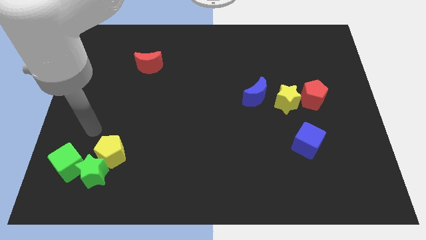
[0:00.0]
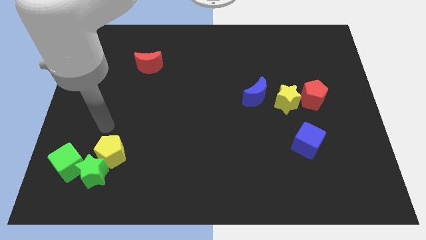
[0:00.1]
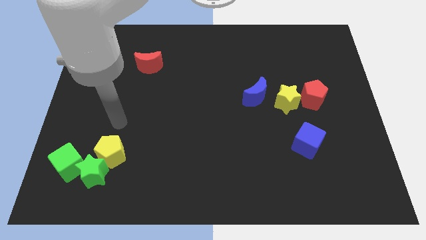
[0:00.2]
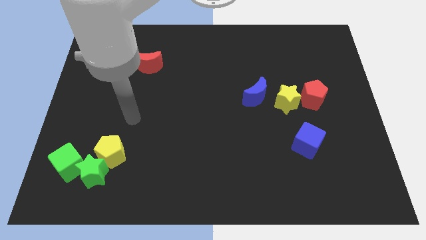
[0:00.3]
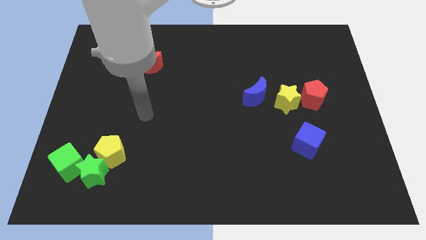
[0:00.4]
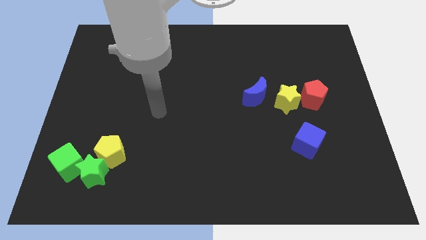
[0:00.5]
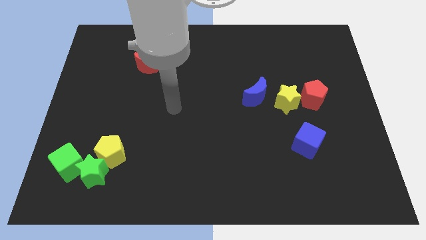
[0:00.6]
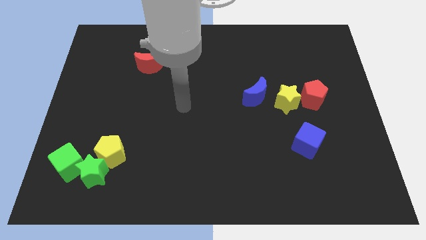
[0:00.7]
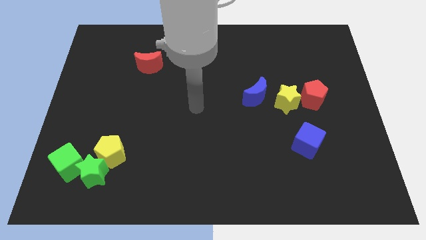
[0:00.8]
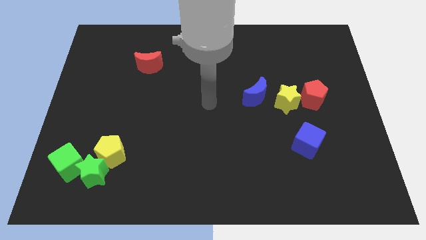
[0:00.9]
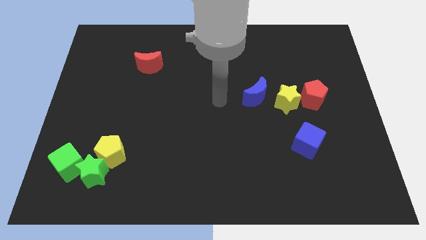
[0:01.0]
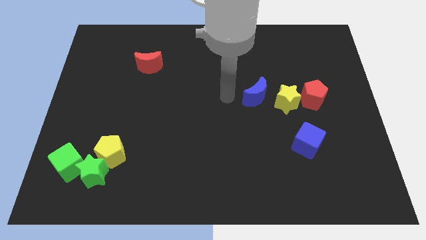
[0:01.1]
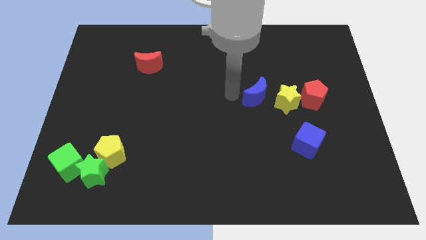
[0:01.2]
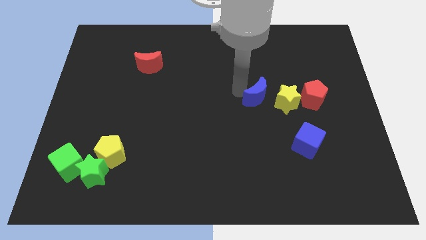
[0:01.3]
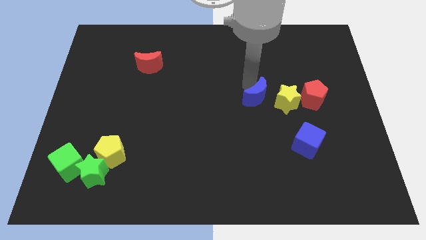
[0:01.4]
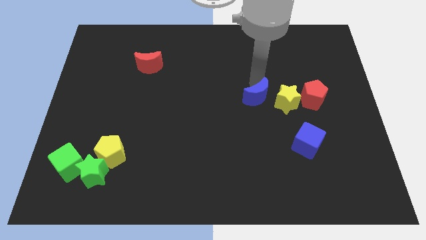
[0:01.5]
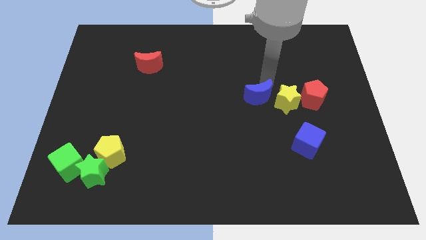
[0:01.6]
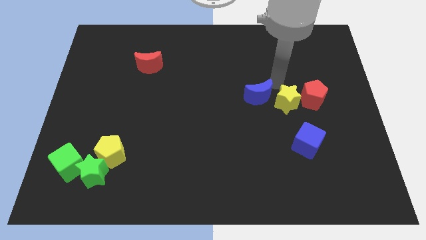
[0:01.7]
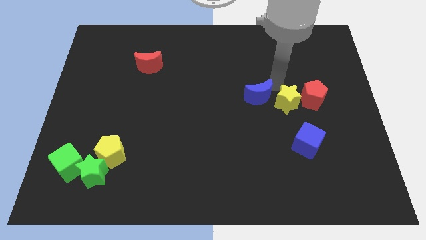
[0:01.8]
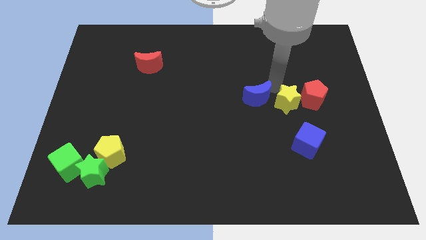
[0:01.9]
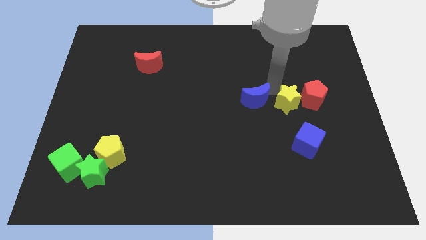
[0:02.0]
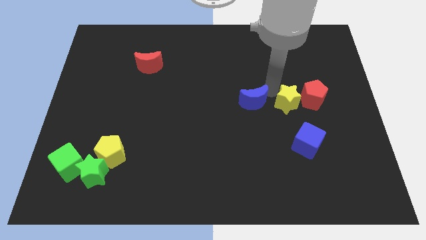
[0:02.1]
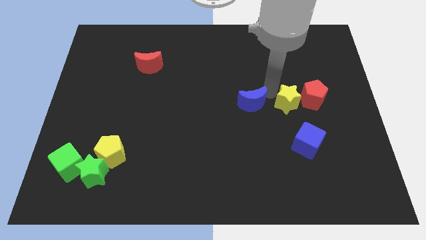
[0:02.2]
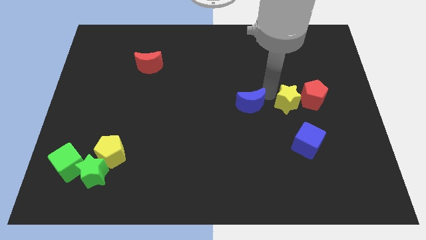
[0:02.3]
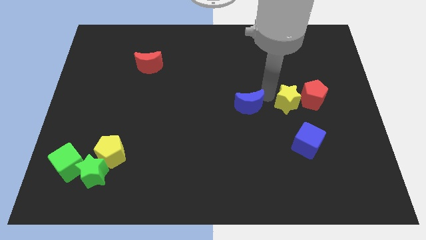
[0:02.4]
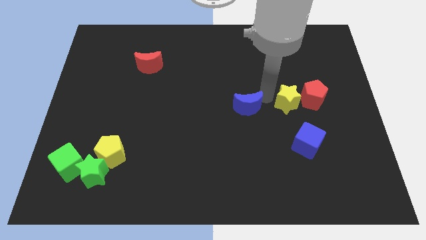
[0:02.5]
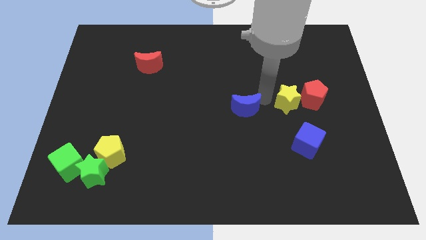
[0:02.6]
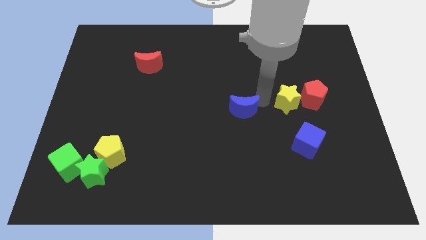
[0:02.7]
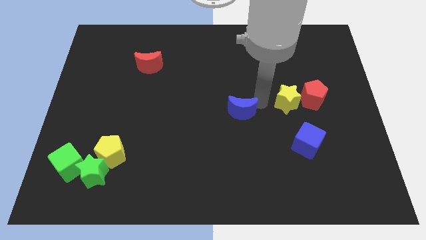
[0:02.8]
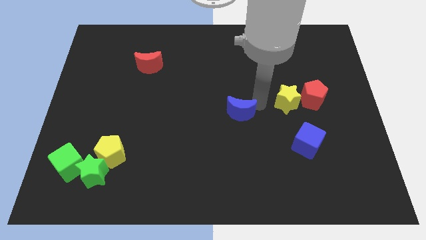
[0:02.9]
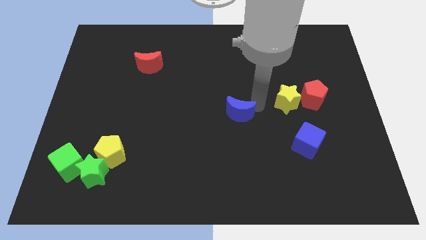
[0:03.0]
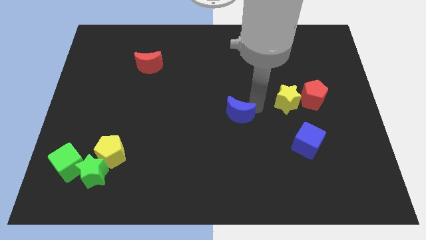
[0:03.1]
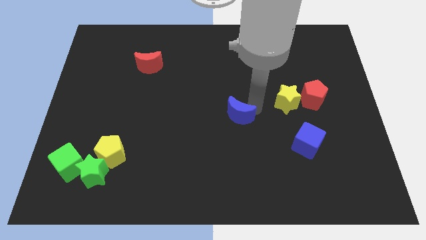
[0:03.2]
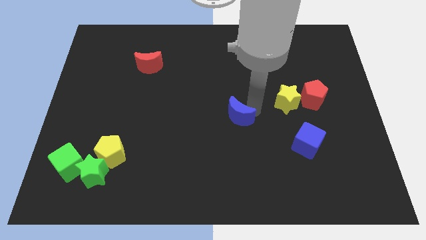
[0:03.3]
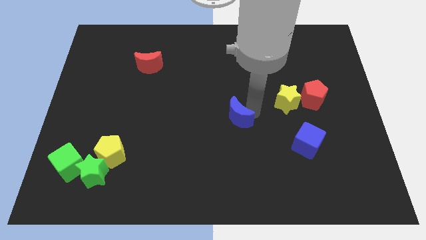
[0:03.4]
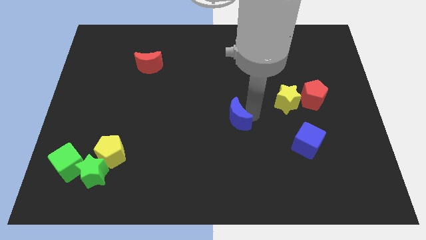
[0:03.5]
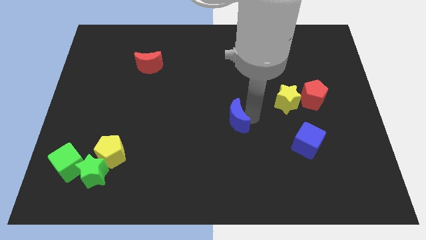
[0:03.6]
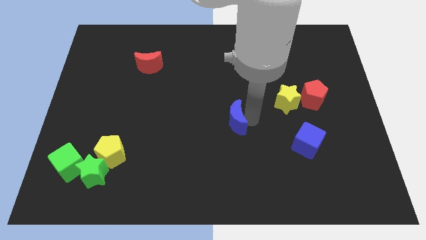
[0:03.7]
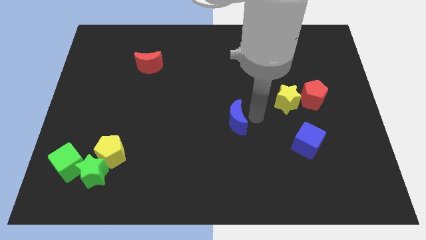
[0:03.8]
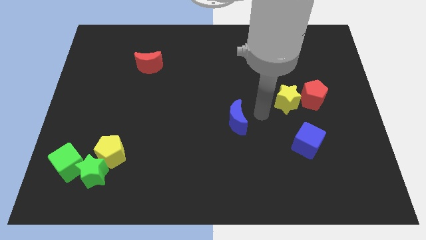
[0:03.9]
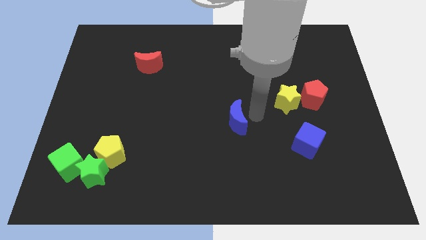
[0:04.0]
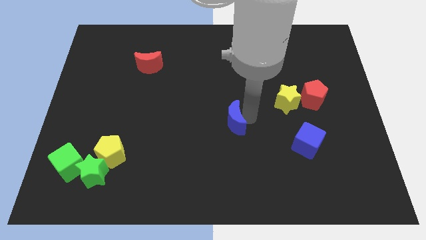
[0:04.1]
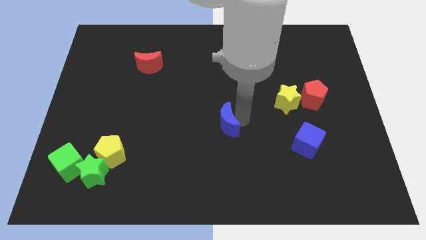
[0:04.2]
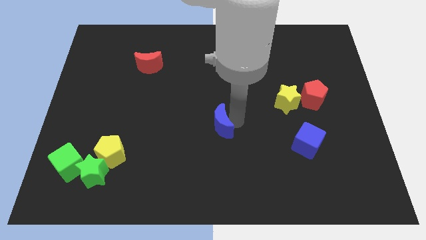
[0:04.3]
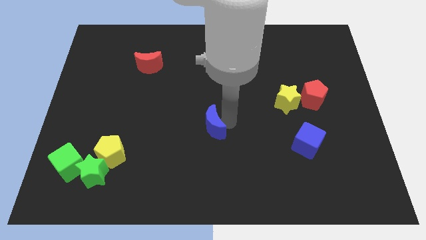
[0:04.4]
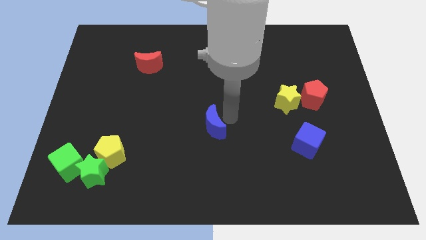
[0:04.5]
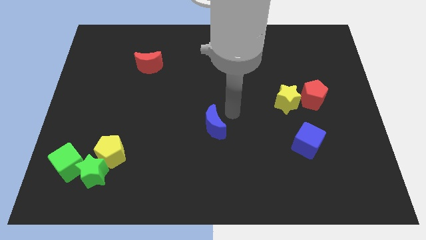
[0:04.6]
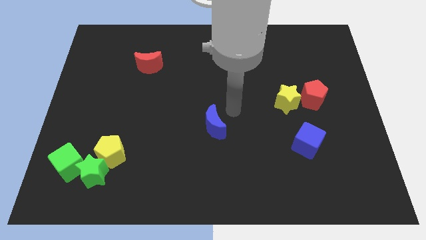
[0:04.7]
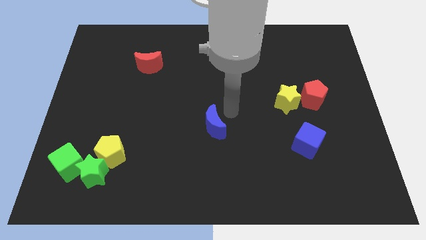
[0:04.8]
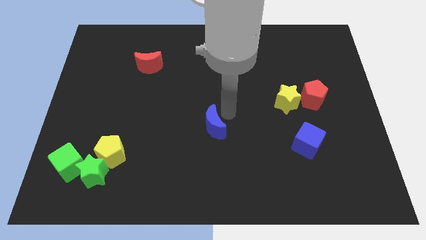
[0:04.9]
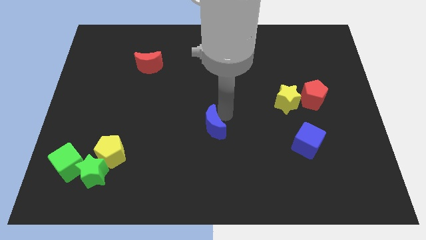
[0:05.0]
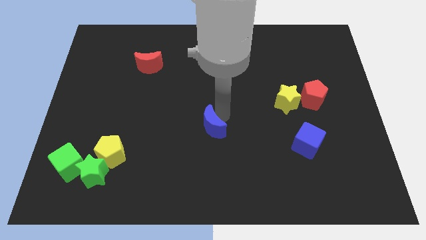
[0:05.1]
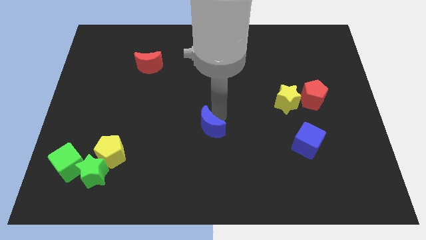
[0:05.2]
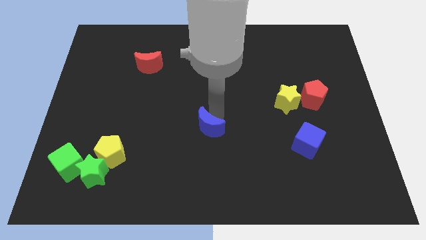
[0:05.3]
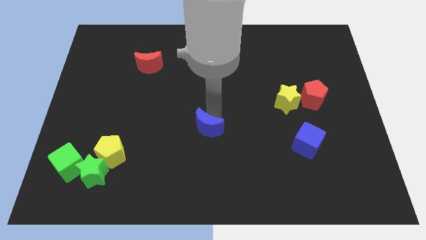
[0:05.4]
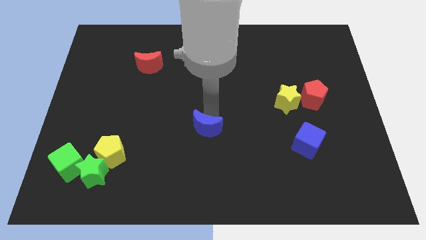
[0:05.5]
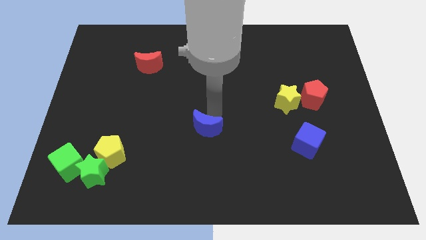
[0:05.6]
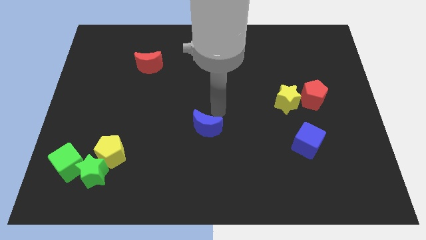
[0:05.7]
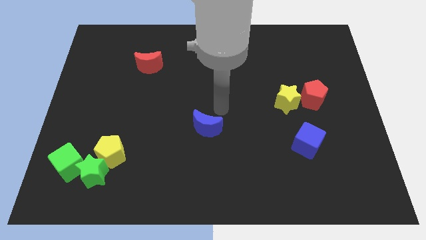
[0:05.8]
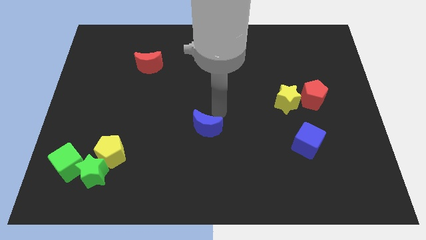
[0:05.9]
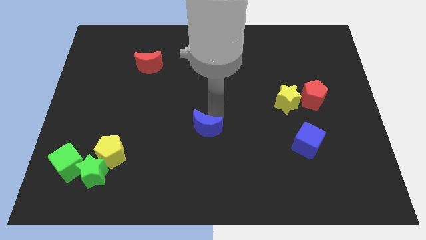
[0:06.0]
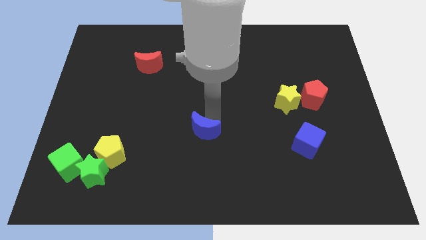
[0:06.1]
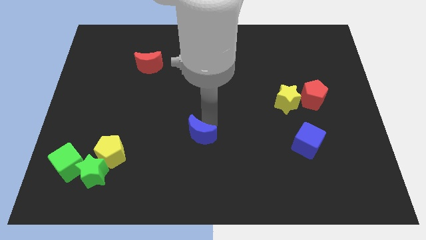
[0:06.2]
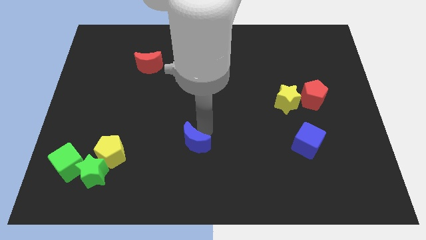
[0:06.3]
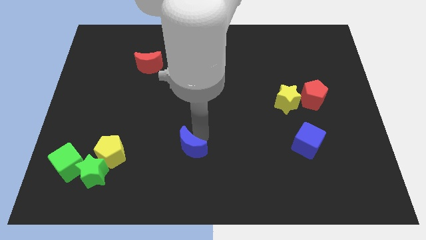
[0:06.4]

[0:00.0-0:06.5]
slide the blue moon down and left

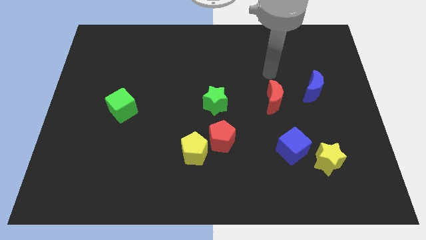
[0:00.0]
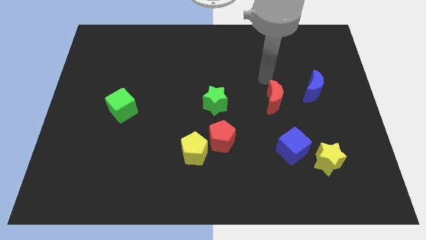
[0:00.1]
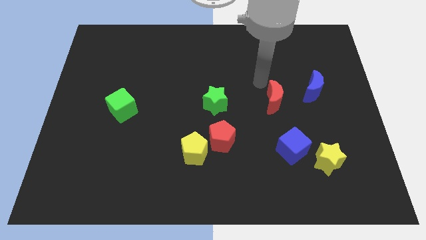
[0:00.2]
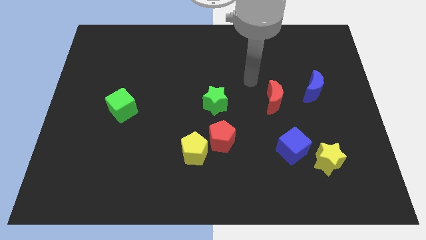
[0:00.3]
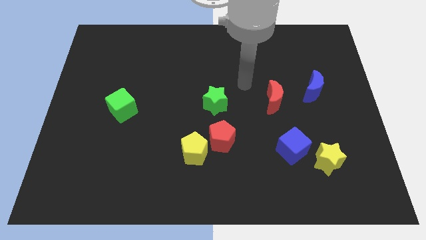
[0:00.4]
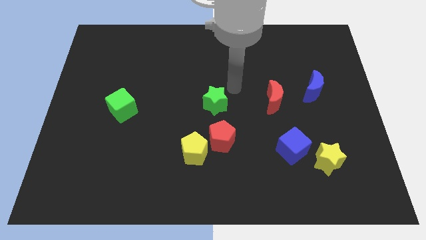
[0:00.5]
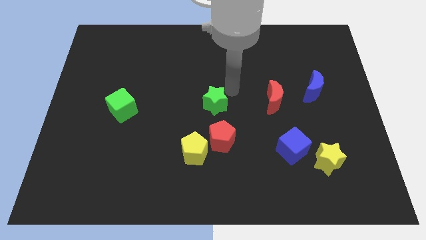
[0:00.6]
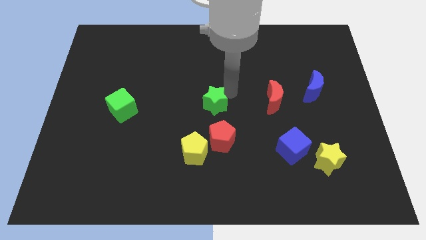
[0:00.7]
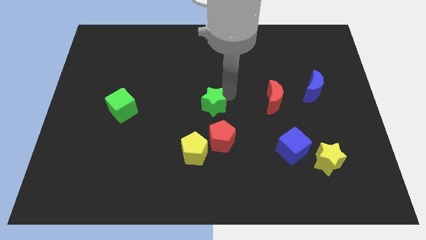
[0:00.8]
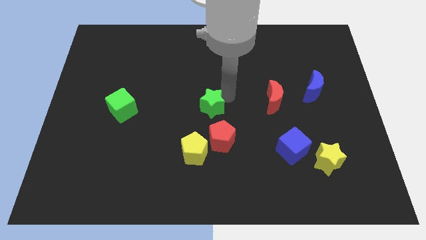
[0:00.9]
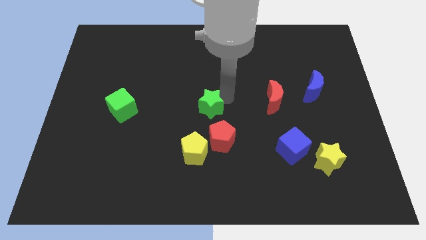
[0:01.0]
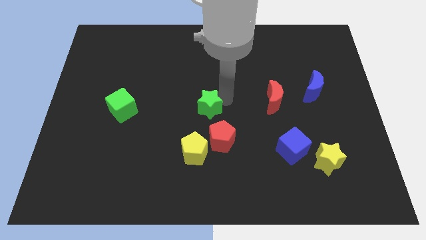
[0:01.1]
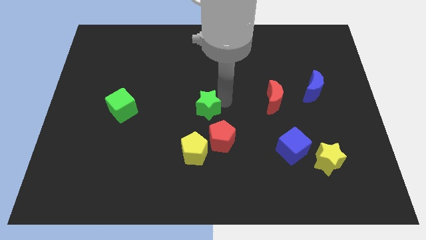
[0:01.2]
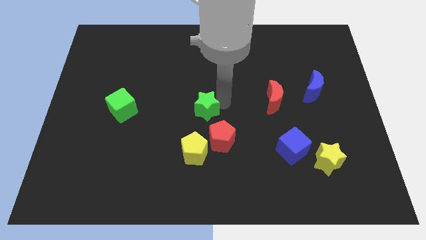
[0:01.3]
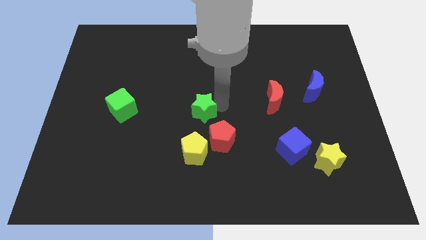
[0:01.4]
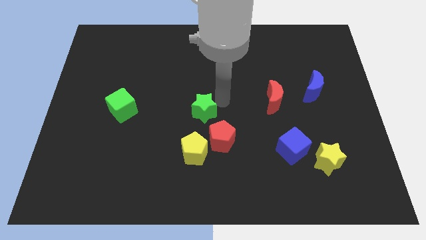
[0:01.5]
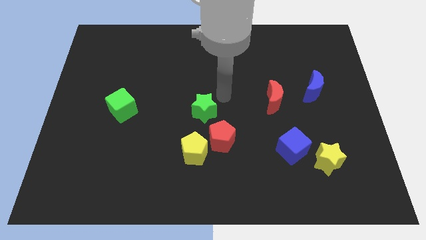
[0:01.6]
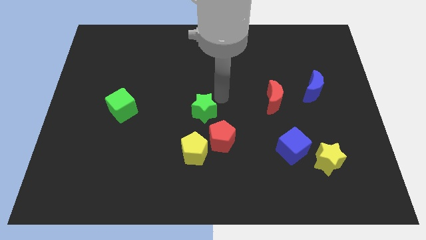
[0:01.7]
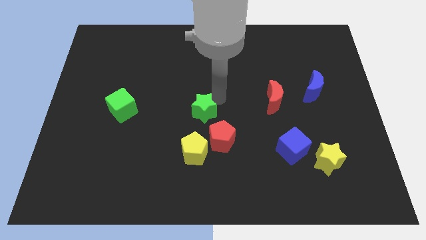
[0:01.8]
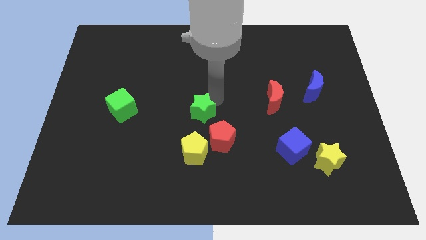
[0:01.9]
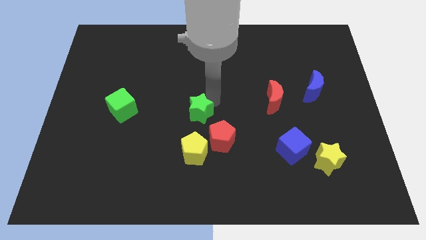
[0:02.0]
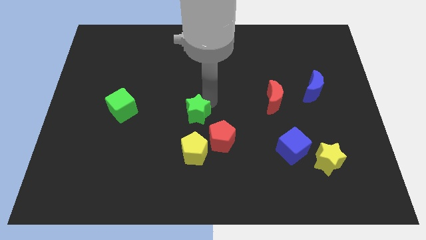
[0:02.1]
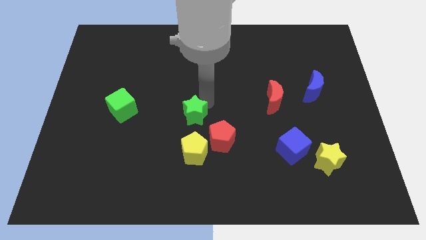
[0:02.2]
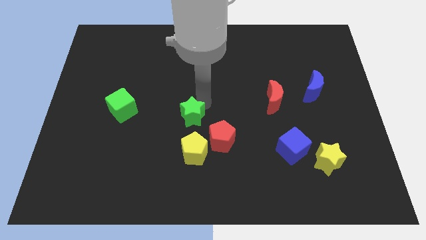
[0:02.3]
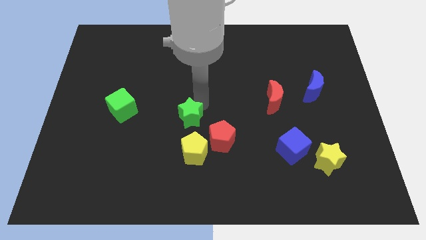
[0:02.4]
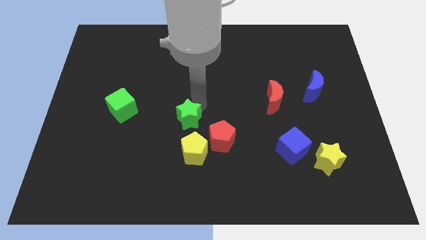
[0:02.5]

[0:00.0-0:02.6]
move the green star down and left slightly
